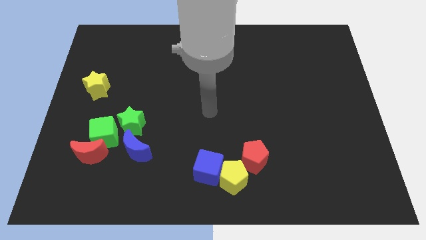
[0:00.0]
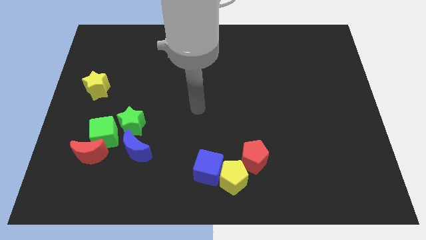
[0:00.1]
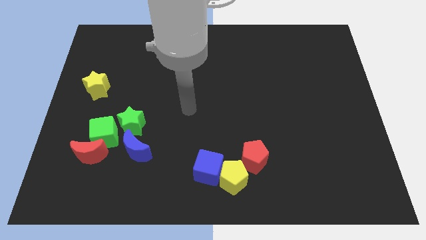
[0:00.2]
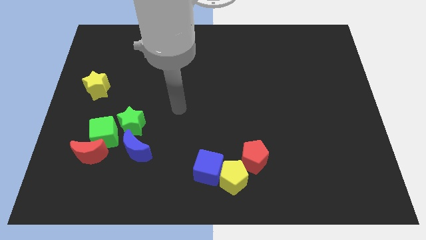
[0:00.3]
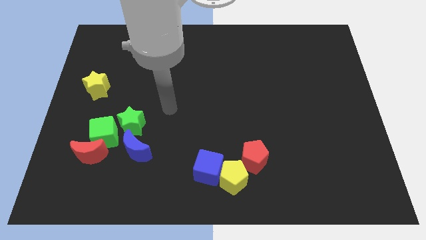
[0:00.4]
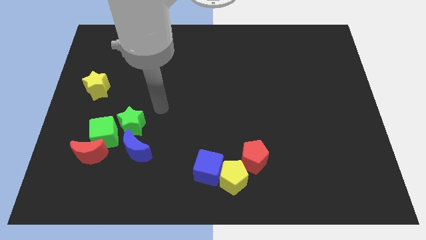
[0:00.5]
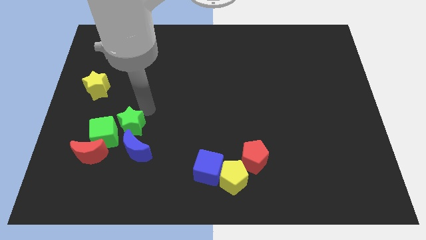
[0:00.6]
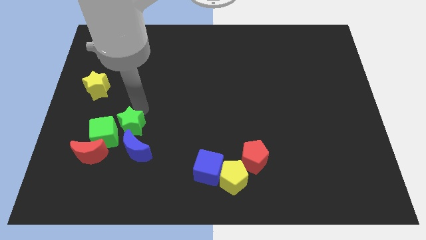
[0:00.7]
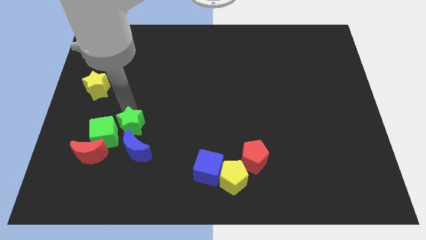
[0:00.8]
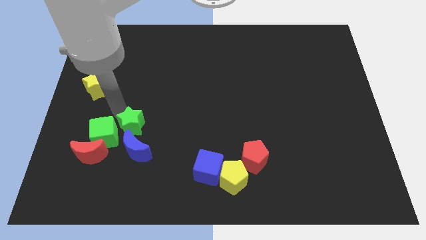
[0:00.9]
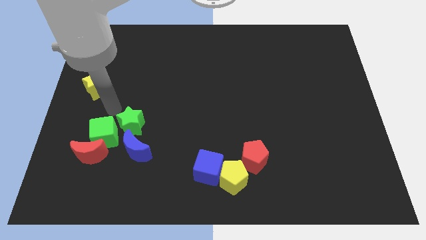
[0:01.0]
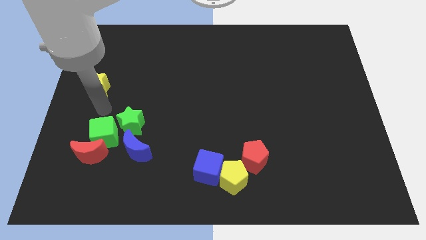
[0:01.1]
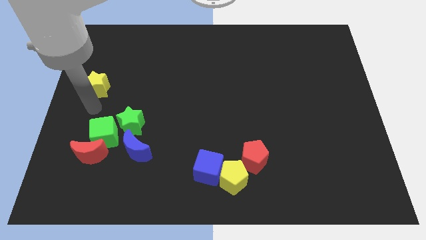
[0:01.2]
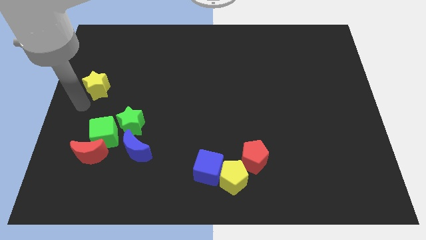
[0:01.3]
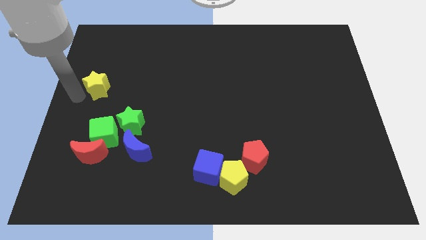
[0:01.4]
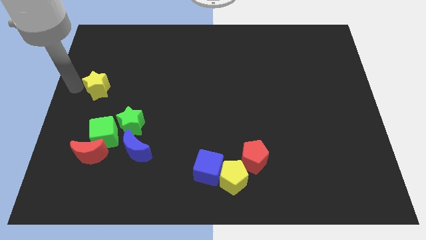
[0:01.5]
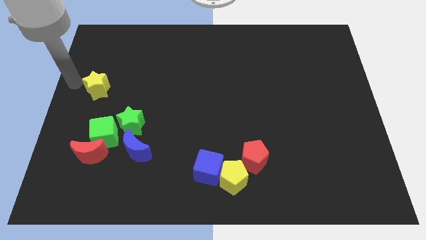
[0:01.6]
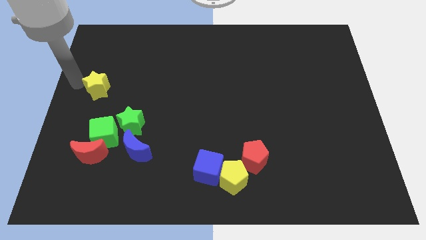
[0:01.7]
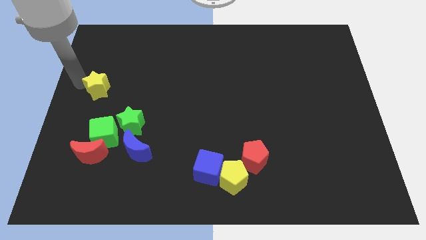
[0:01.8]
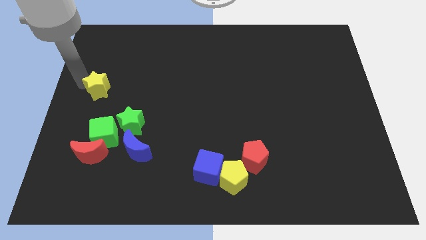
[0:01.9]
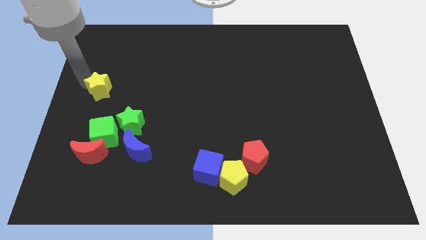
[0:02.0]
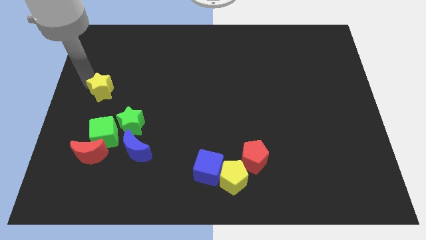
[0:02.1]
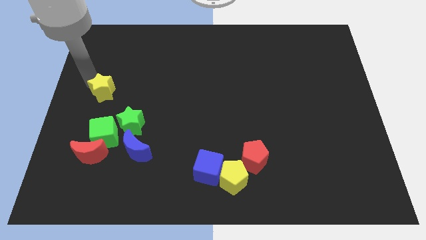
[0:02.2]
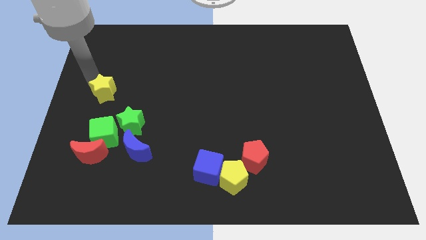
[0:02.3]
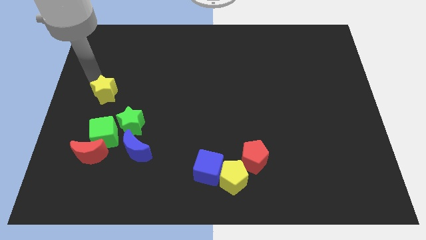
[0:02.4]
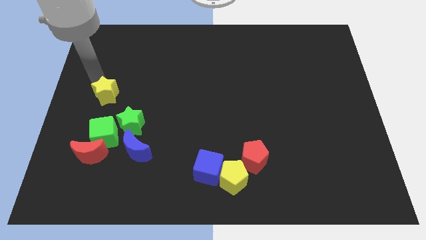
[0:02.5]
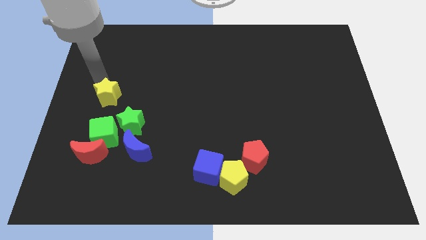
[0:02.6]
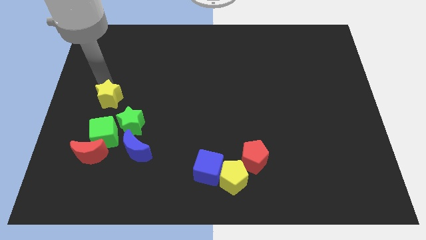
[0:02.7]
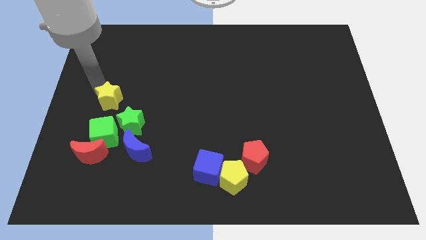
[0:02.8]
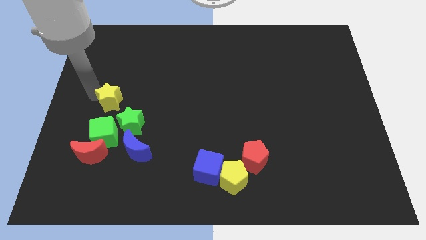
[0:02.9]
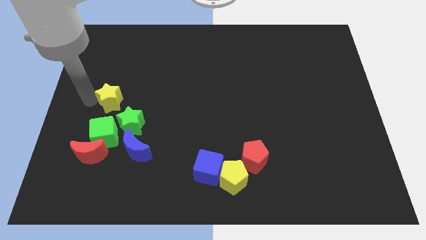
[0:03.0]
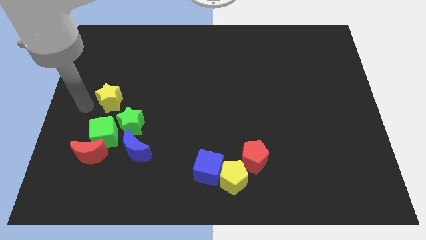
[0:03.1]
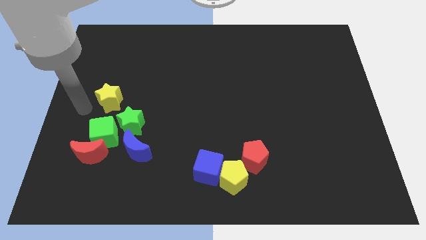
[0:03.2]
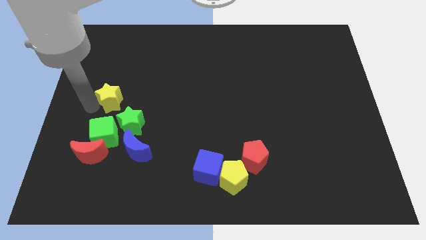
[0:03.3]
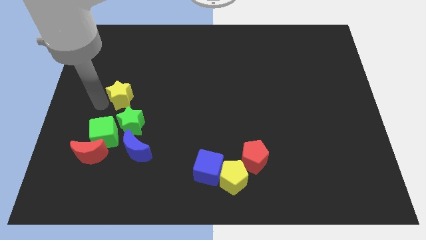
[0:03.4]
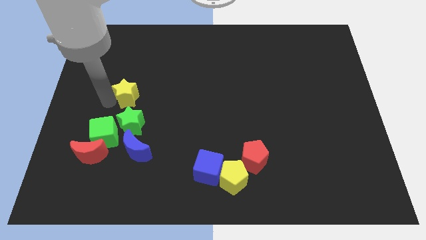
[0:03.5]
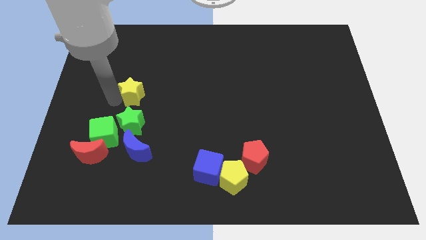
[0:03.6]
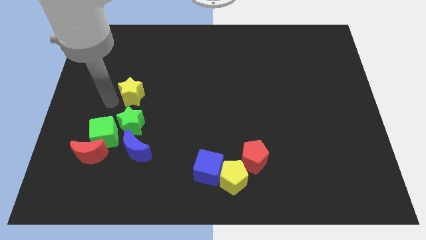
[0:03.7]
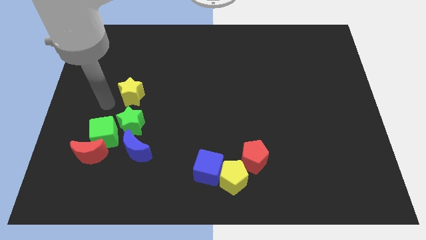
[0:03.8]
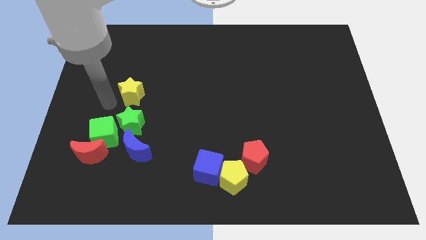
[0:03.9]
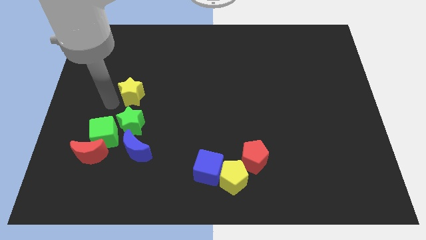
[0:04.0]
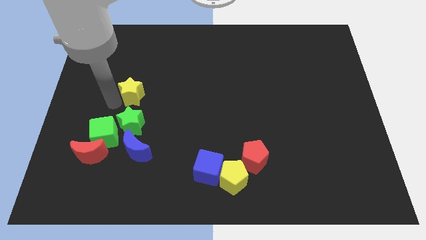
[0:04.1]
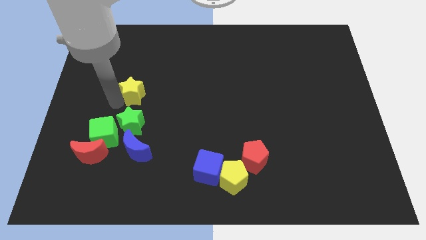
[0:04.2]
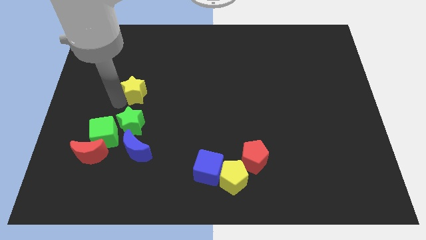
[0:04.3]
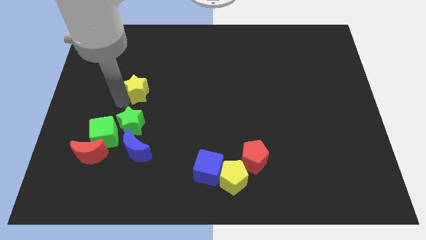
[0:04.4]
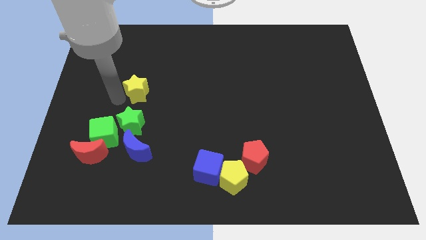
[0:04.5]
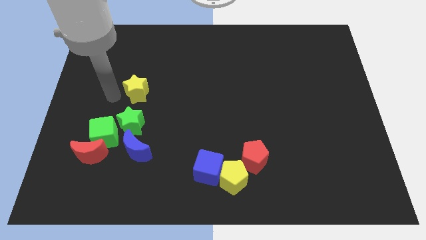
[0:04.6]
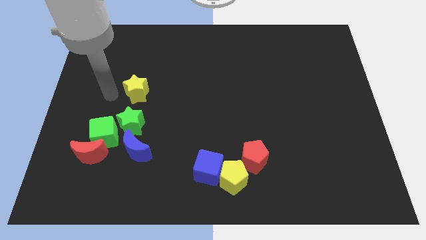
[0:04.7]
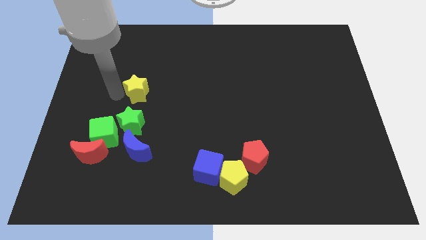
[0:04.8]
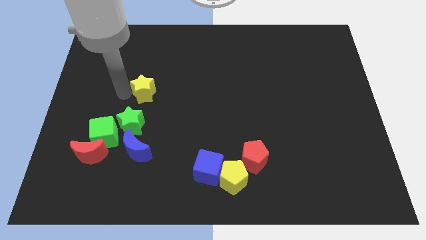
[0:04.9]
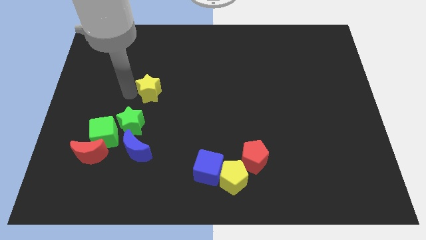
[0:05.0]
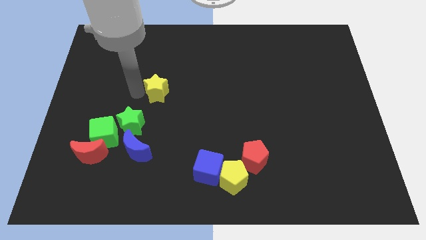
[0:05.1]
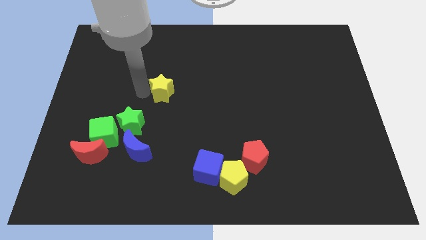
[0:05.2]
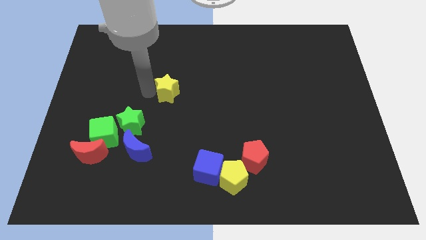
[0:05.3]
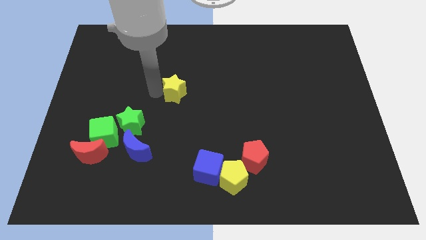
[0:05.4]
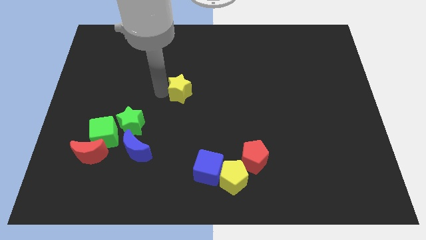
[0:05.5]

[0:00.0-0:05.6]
slide the yellow star to the right

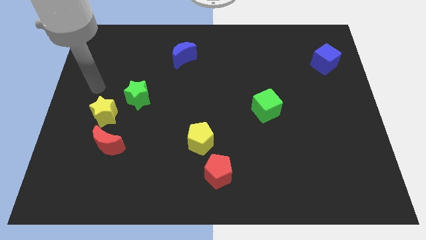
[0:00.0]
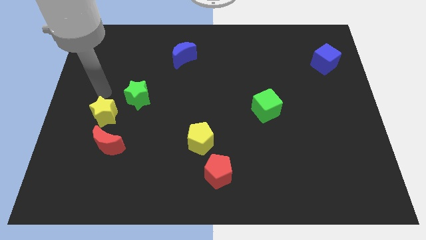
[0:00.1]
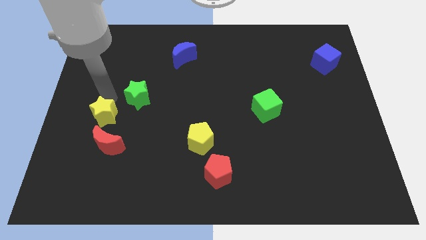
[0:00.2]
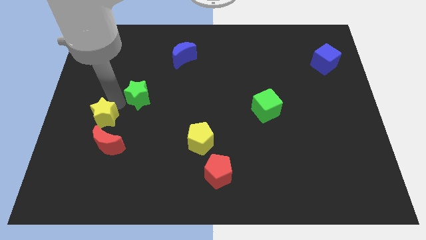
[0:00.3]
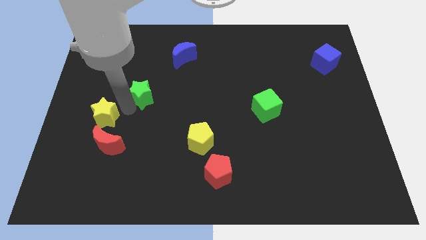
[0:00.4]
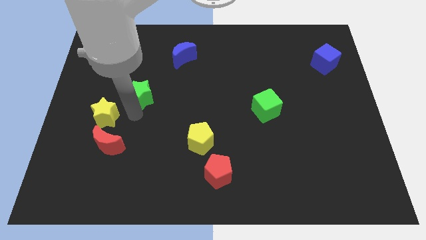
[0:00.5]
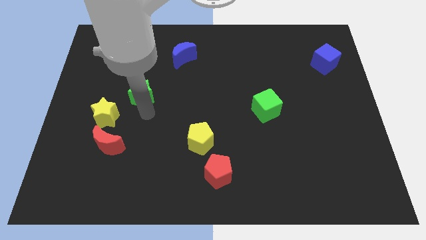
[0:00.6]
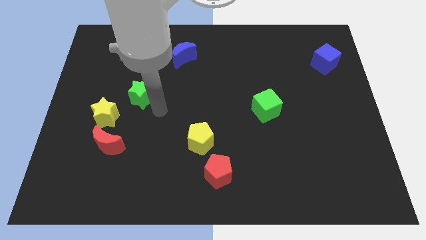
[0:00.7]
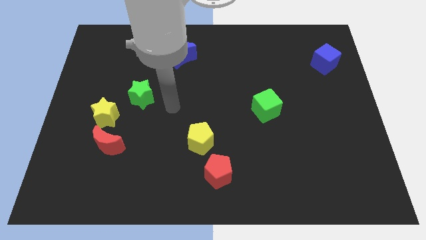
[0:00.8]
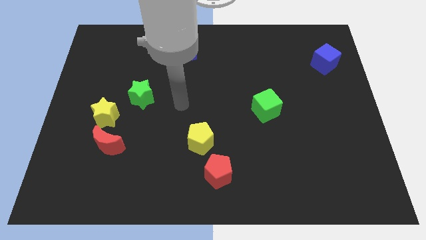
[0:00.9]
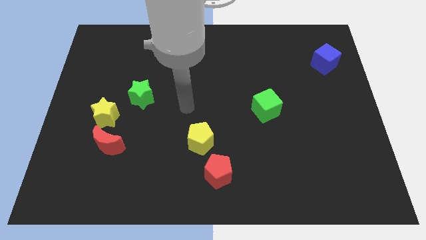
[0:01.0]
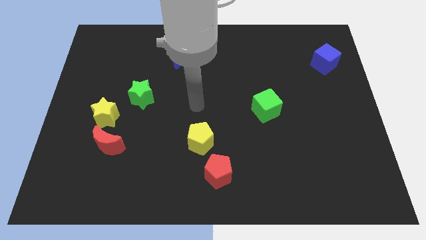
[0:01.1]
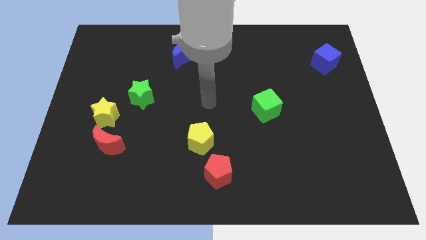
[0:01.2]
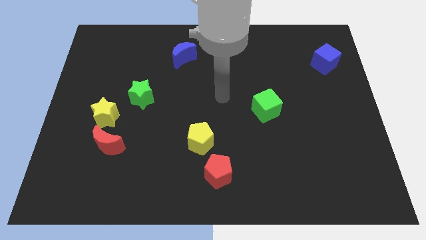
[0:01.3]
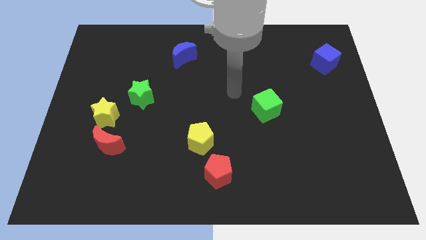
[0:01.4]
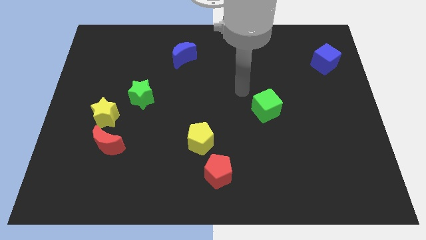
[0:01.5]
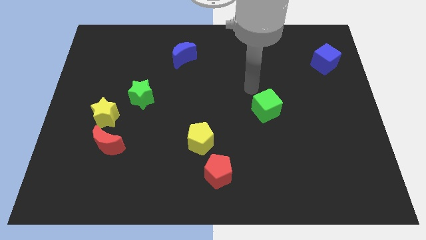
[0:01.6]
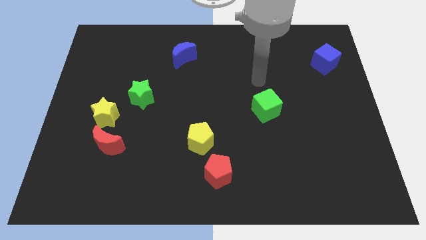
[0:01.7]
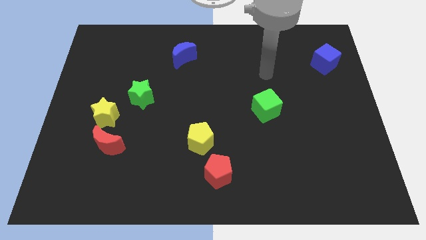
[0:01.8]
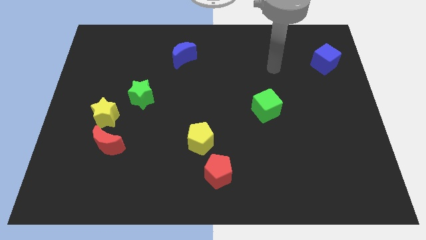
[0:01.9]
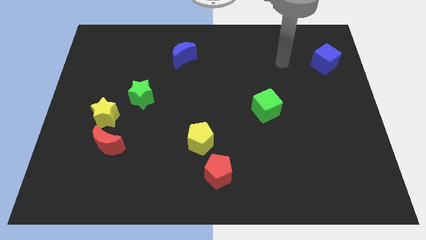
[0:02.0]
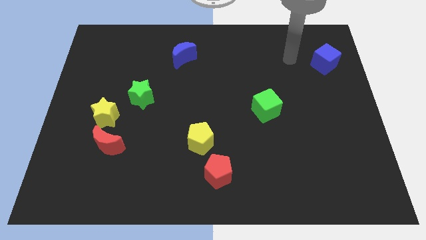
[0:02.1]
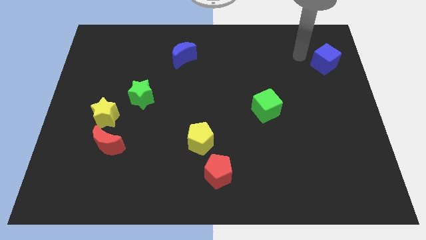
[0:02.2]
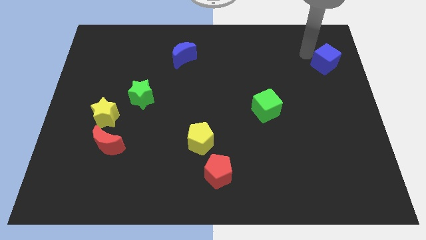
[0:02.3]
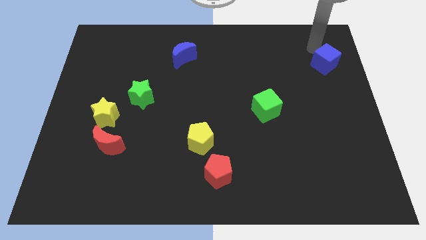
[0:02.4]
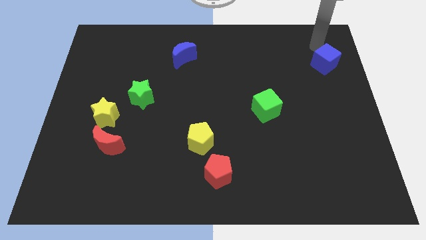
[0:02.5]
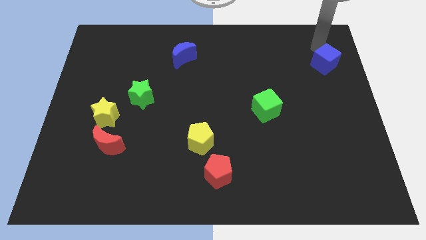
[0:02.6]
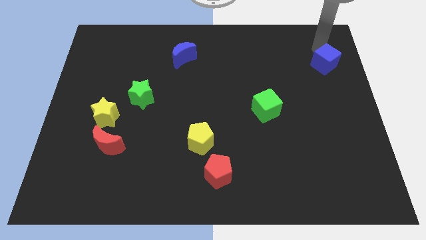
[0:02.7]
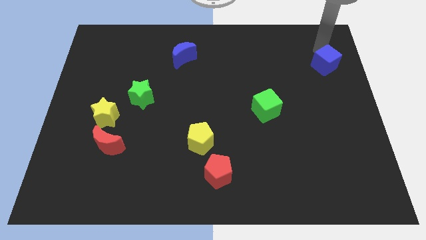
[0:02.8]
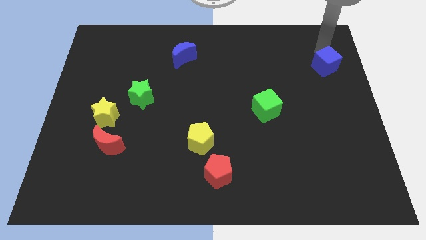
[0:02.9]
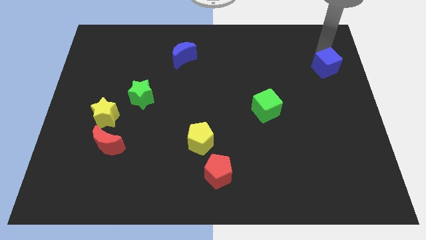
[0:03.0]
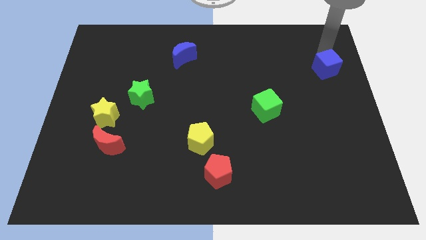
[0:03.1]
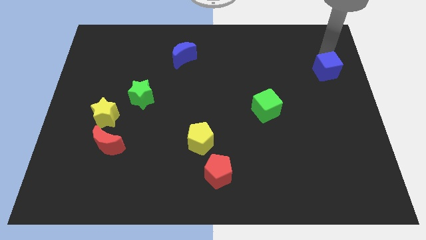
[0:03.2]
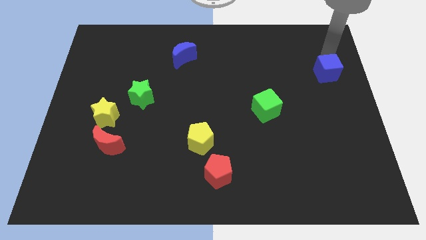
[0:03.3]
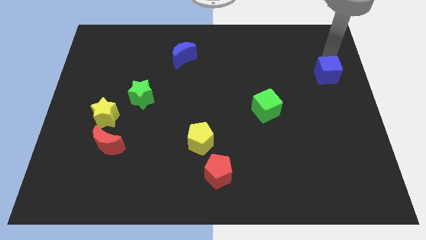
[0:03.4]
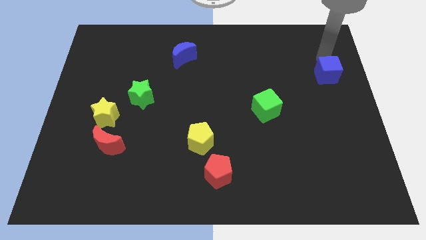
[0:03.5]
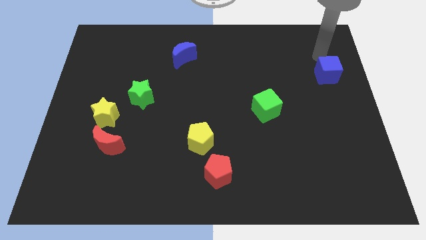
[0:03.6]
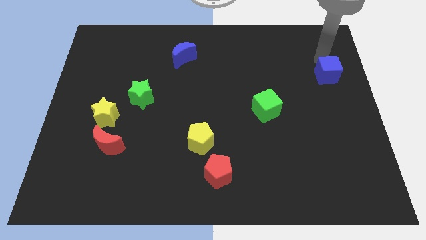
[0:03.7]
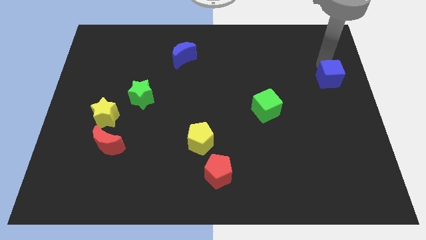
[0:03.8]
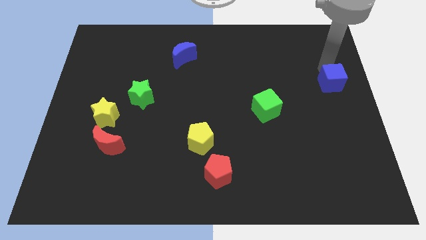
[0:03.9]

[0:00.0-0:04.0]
slide the blue cube down a little
